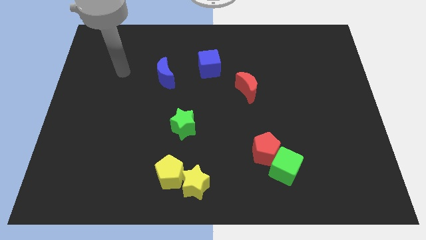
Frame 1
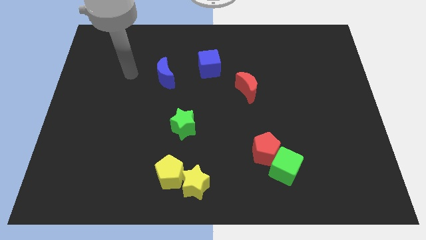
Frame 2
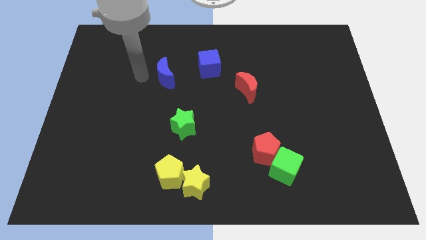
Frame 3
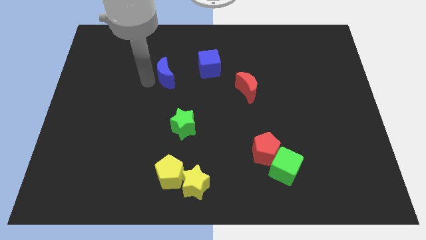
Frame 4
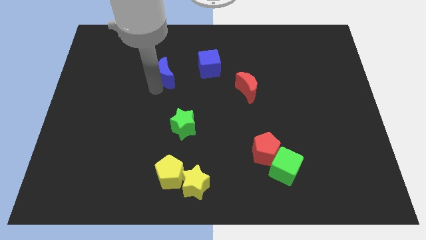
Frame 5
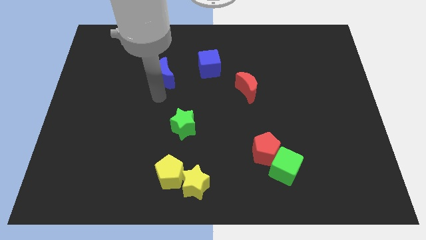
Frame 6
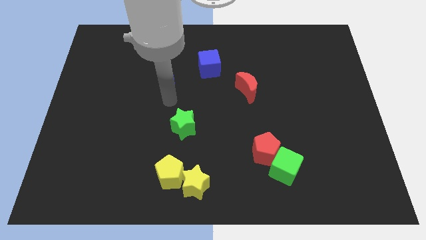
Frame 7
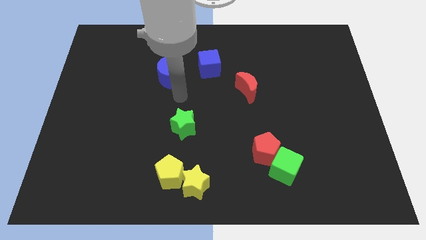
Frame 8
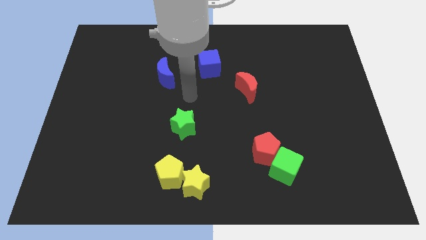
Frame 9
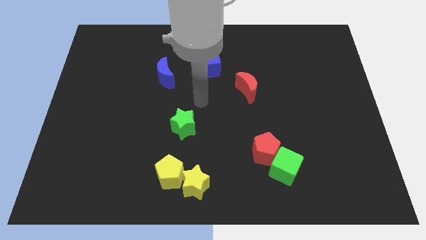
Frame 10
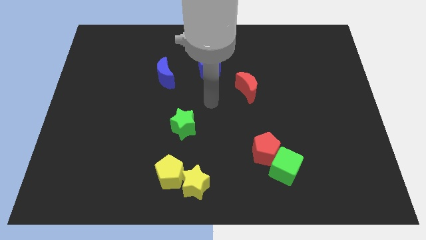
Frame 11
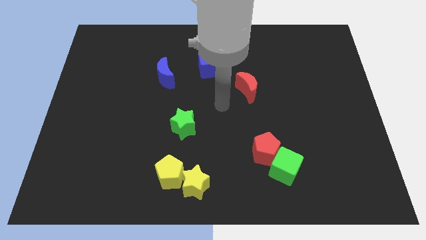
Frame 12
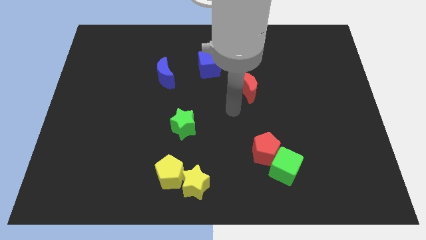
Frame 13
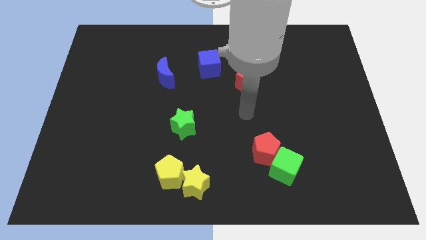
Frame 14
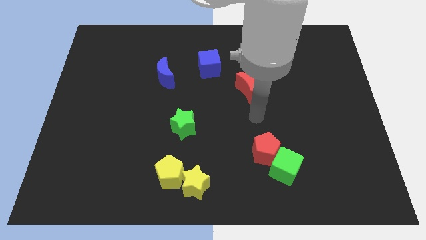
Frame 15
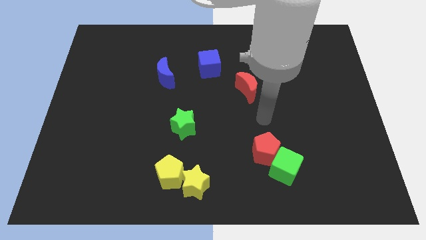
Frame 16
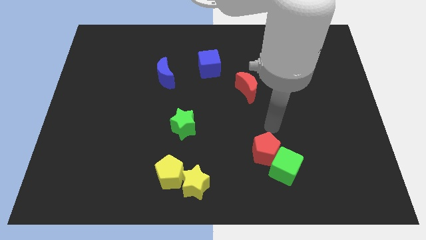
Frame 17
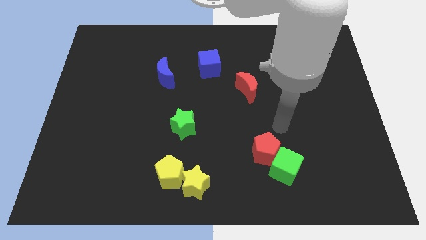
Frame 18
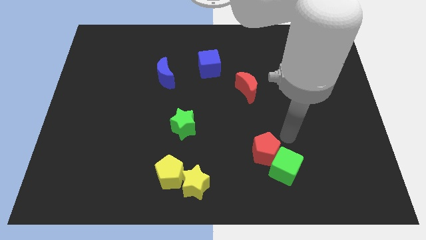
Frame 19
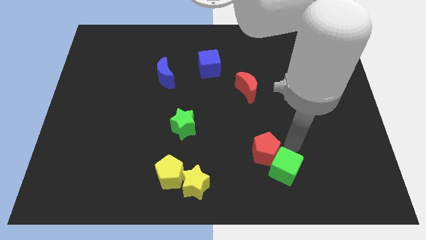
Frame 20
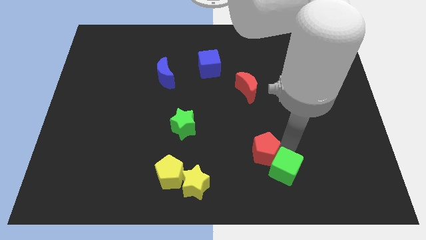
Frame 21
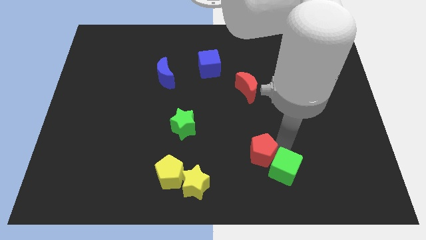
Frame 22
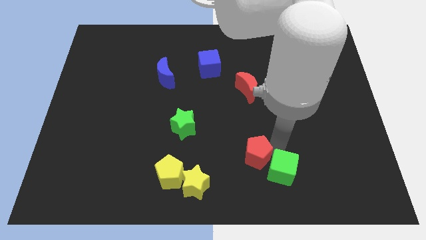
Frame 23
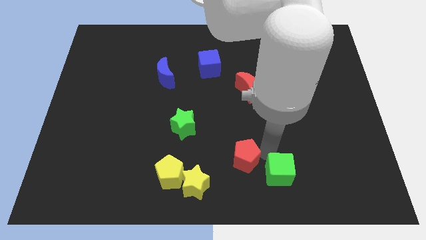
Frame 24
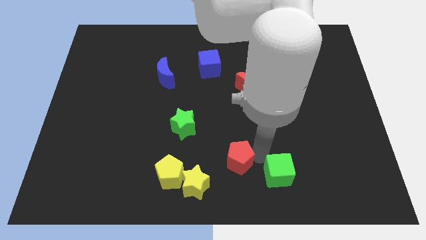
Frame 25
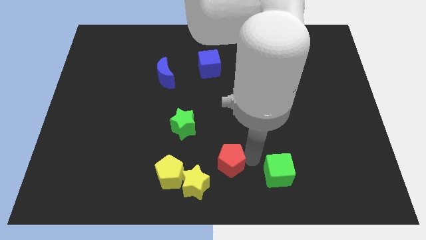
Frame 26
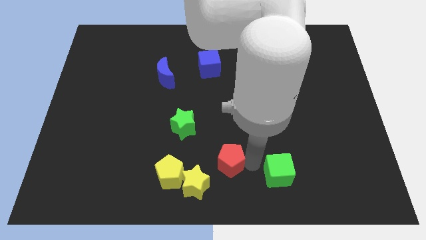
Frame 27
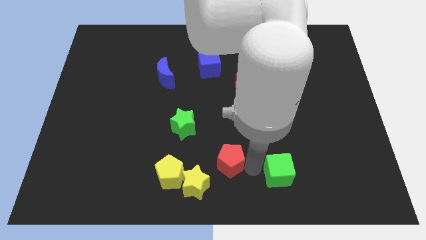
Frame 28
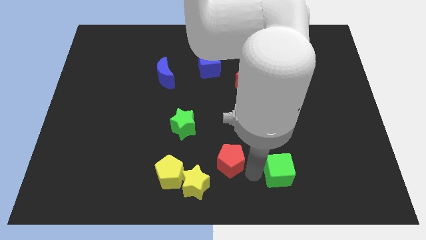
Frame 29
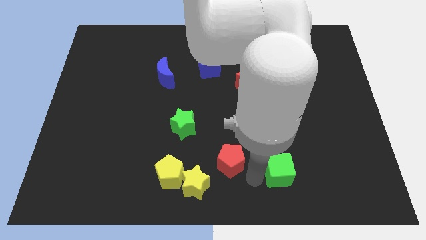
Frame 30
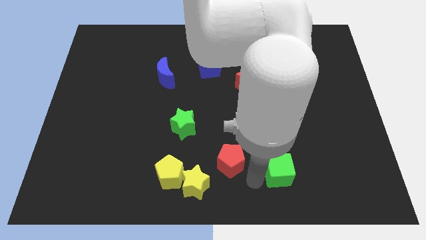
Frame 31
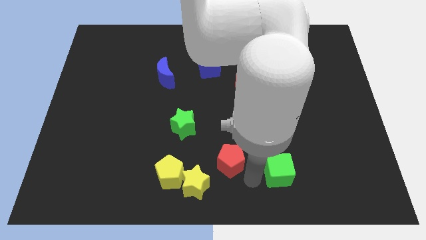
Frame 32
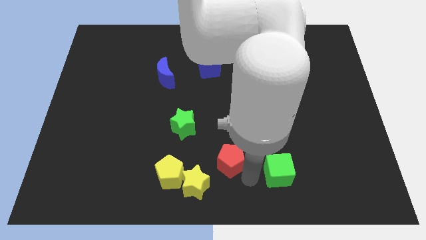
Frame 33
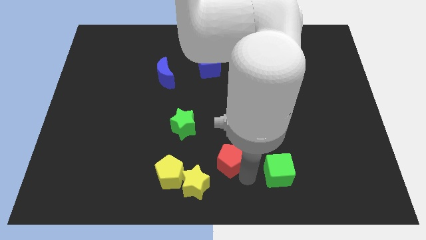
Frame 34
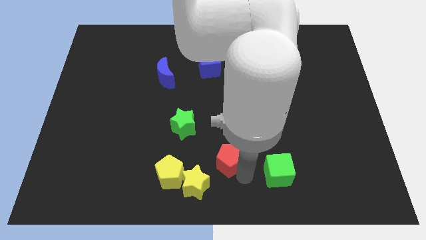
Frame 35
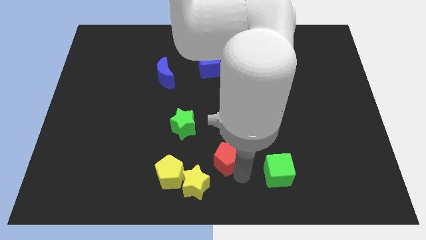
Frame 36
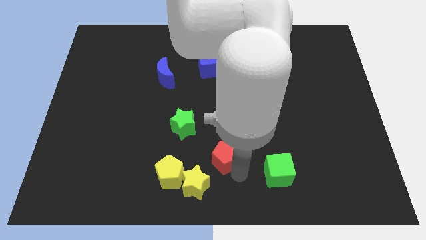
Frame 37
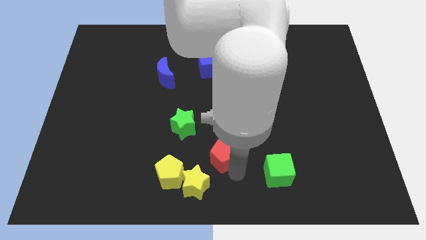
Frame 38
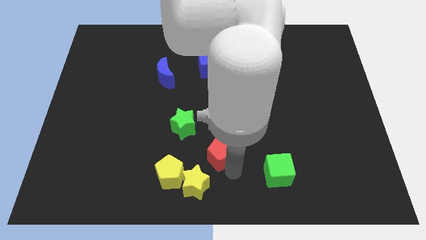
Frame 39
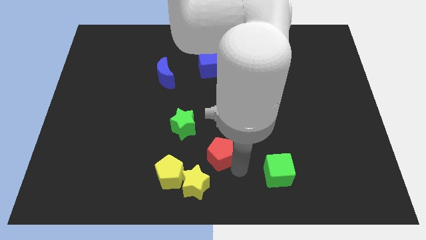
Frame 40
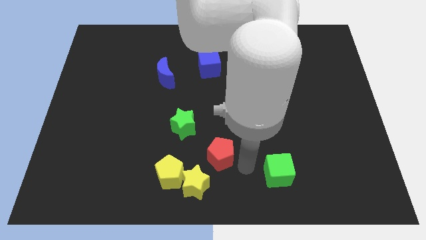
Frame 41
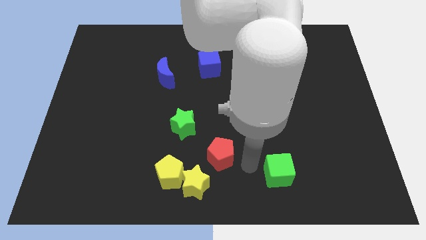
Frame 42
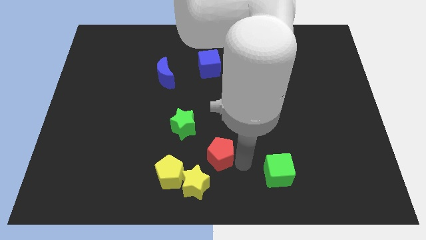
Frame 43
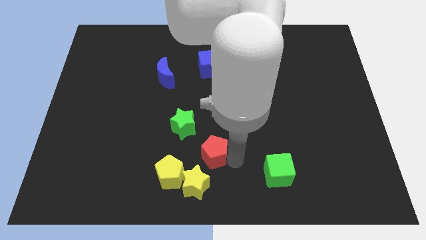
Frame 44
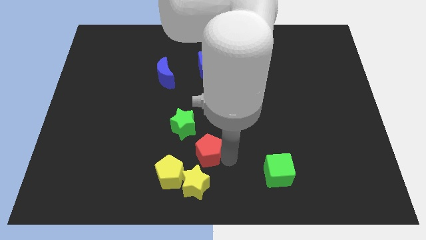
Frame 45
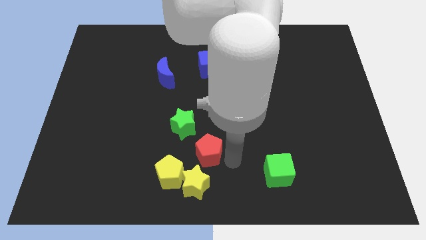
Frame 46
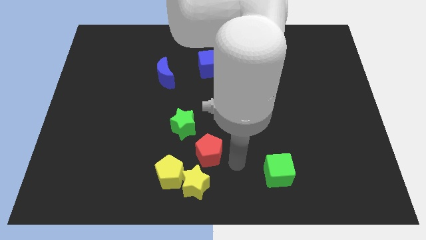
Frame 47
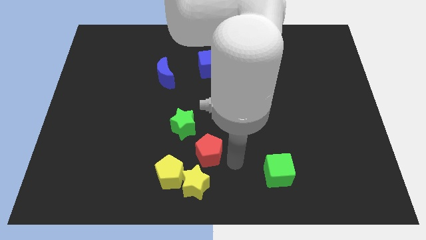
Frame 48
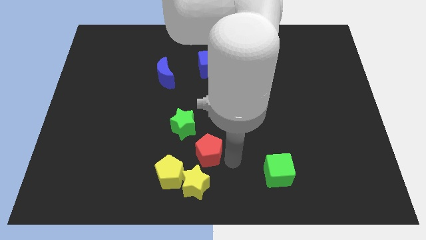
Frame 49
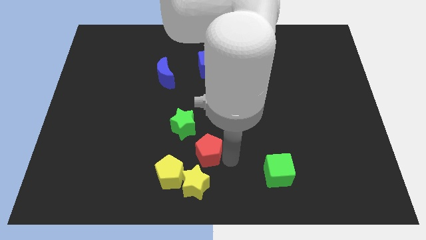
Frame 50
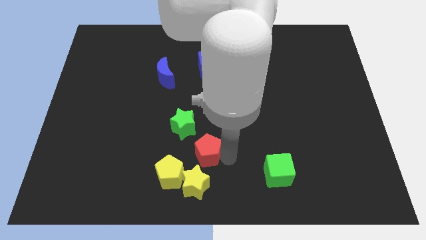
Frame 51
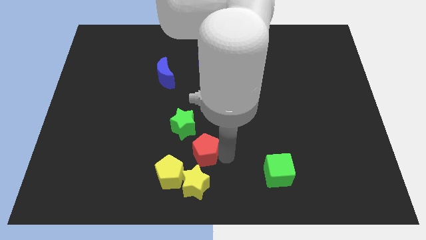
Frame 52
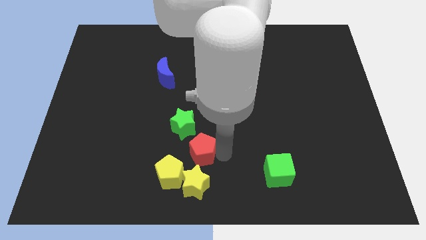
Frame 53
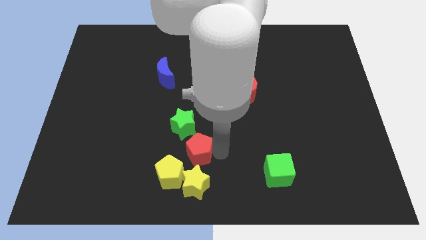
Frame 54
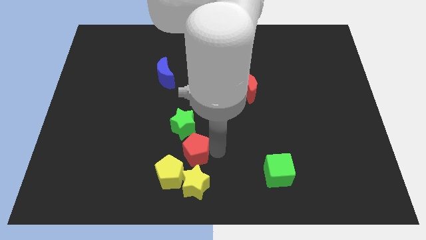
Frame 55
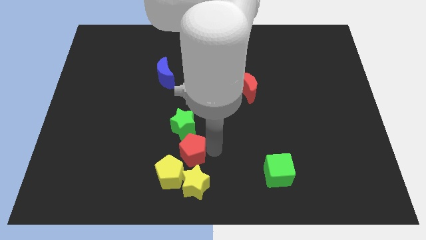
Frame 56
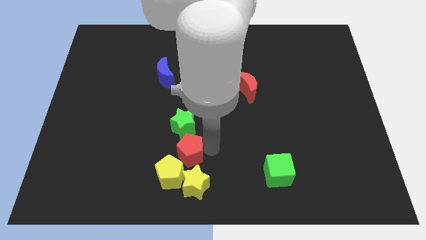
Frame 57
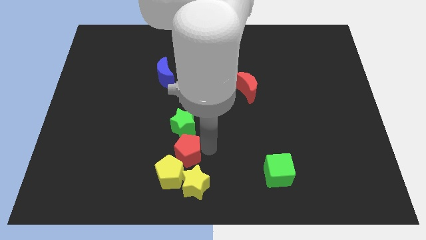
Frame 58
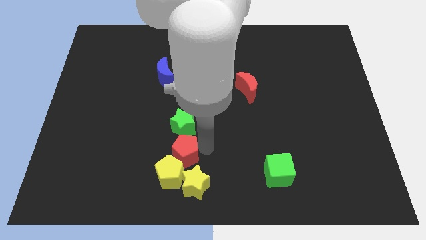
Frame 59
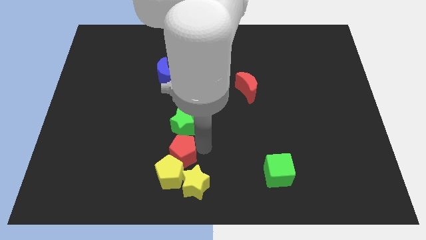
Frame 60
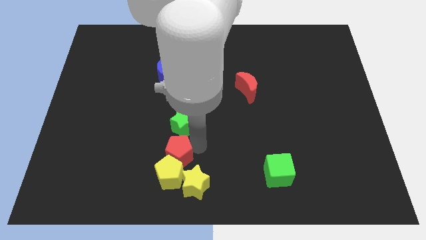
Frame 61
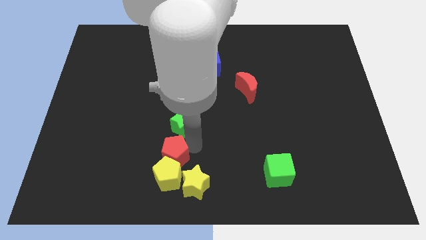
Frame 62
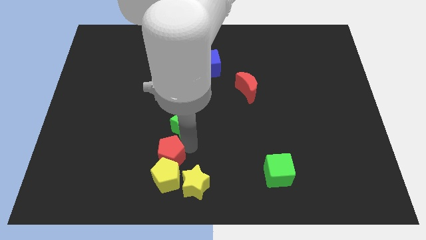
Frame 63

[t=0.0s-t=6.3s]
push the red pentagon to the left

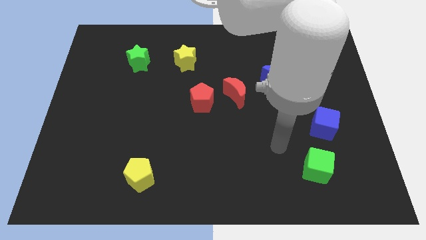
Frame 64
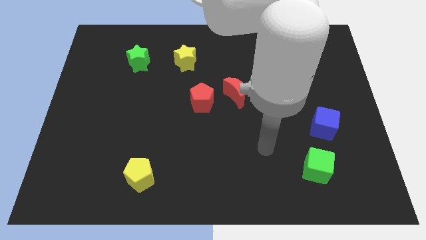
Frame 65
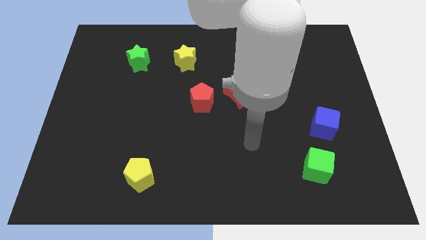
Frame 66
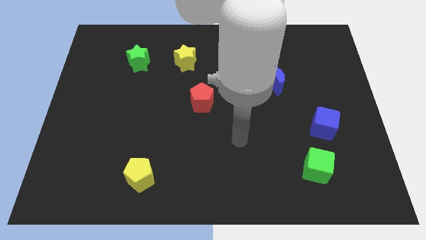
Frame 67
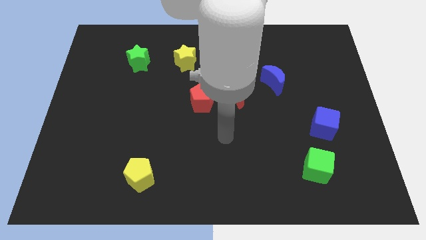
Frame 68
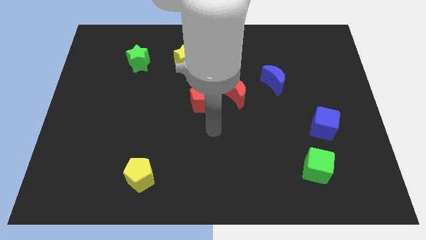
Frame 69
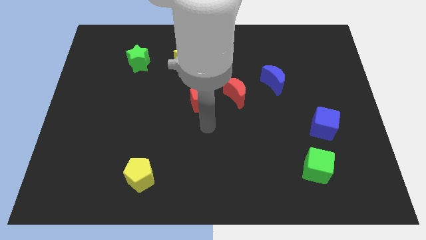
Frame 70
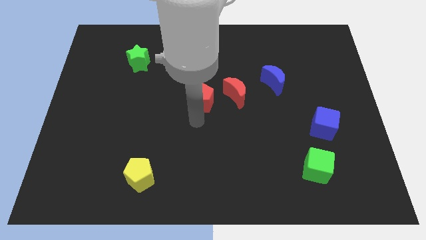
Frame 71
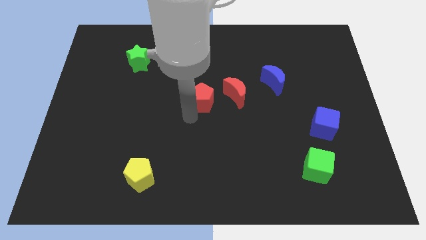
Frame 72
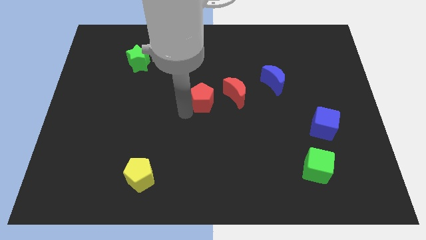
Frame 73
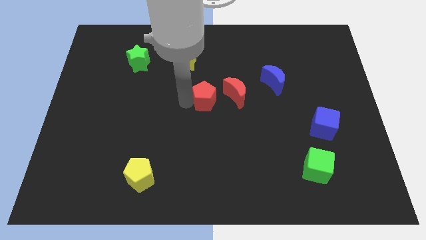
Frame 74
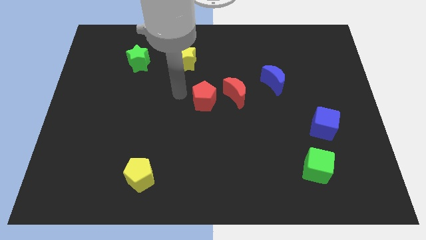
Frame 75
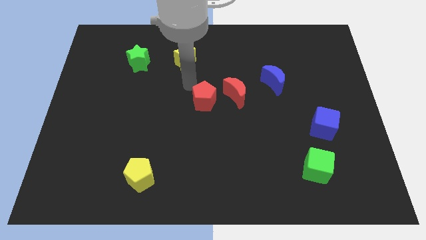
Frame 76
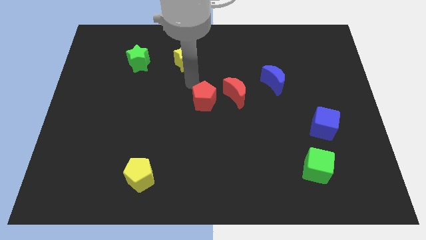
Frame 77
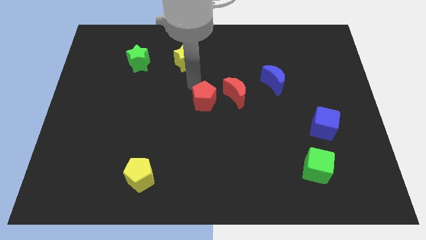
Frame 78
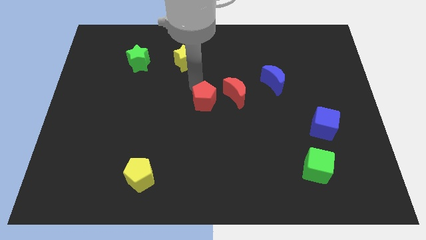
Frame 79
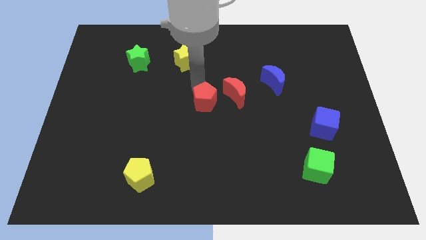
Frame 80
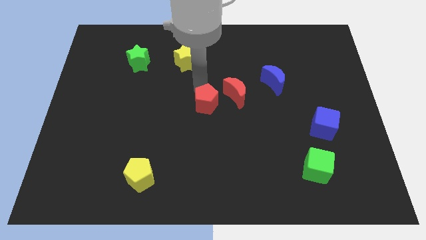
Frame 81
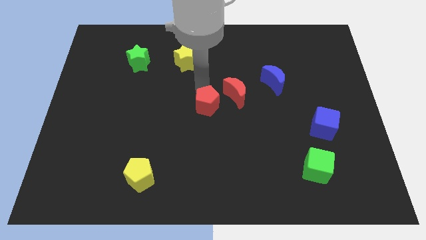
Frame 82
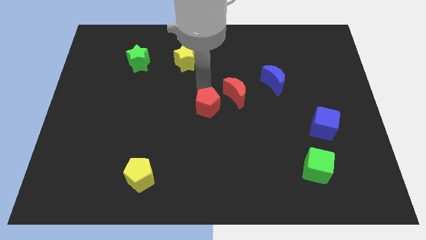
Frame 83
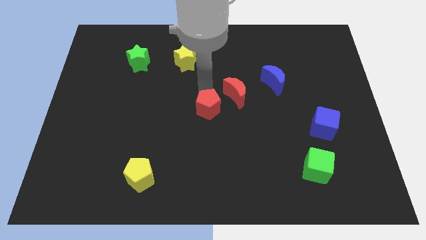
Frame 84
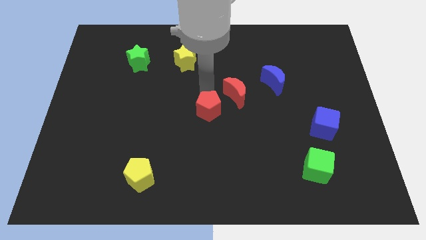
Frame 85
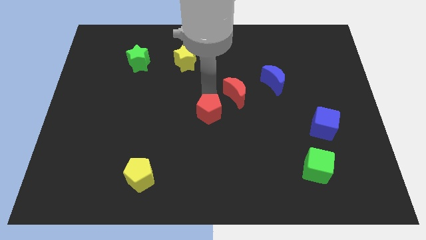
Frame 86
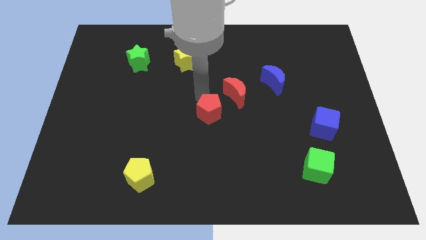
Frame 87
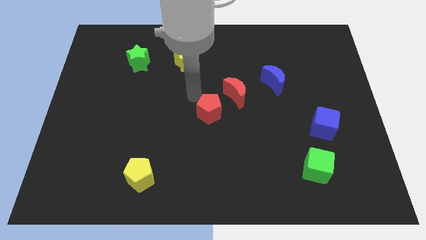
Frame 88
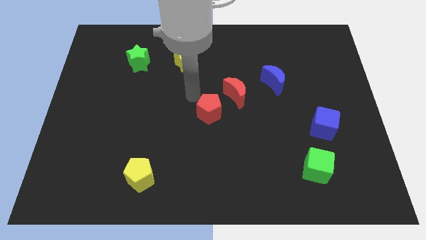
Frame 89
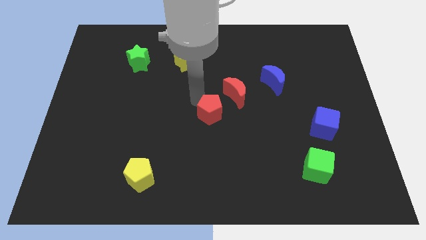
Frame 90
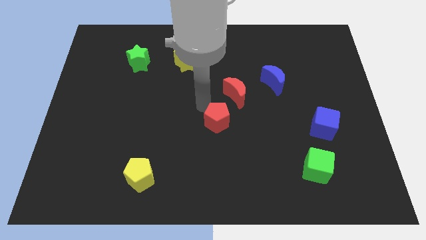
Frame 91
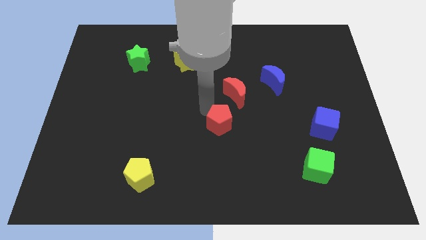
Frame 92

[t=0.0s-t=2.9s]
slightly slide the red pentagon down and then right
